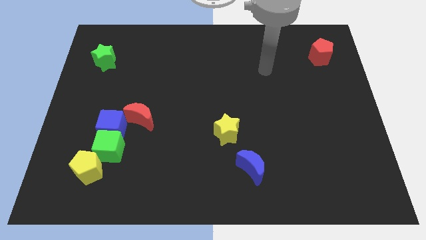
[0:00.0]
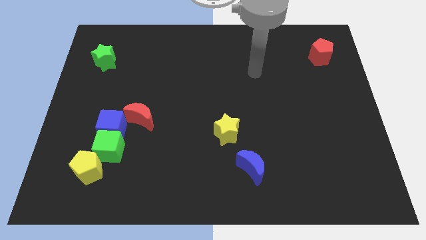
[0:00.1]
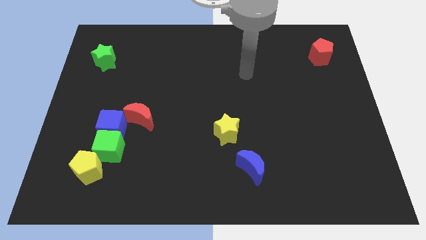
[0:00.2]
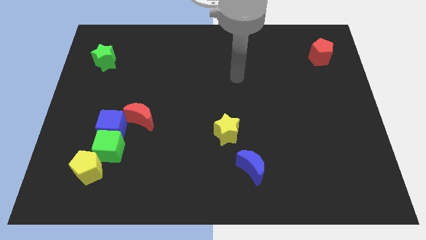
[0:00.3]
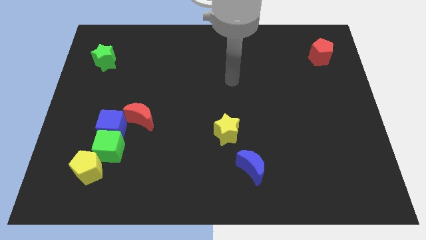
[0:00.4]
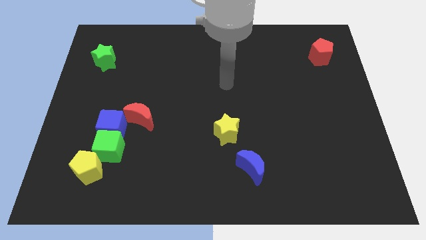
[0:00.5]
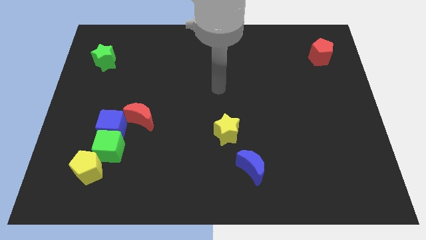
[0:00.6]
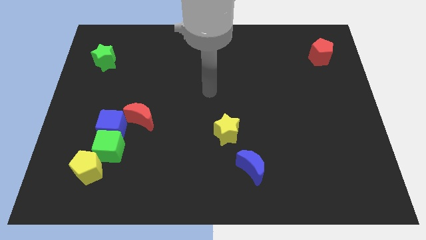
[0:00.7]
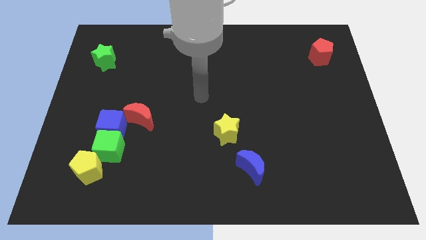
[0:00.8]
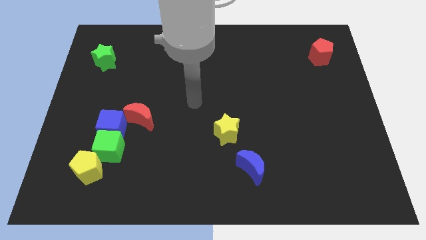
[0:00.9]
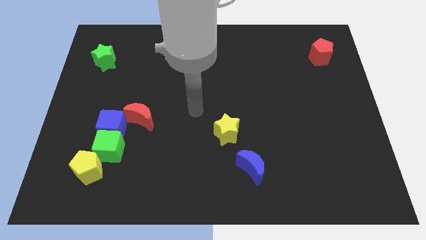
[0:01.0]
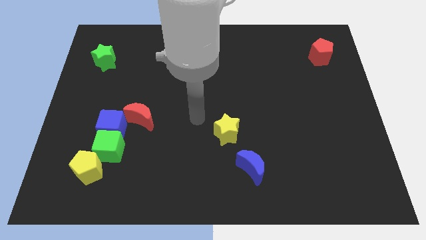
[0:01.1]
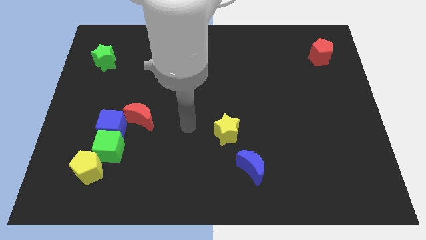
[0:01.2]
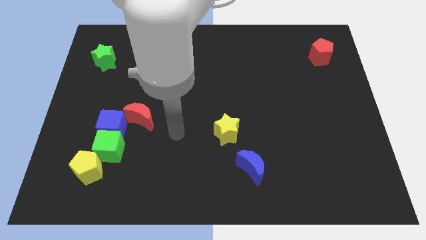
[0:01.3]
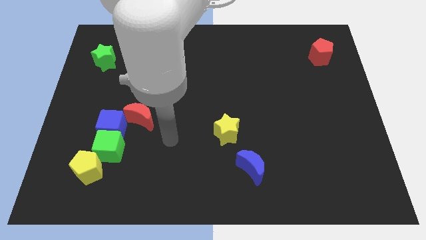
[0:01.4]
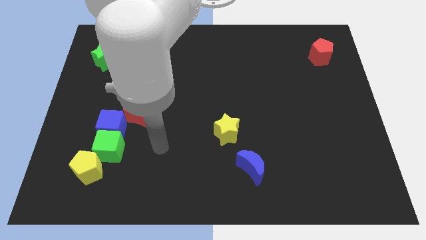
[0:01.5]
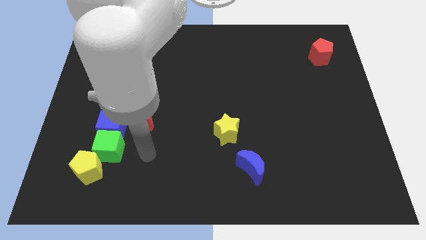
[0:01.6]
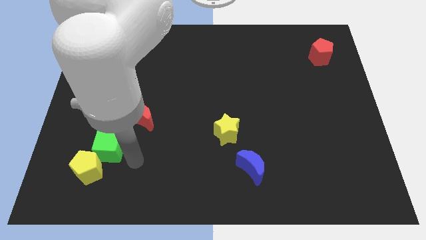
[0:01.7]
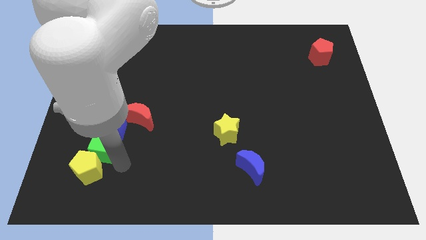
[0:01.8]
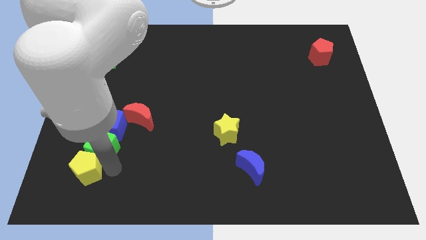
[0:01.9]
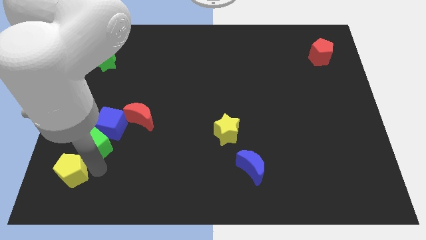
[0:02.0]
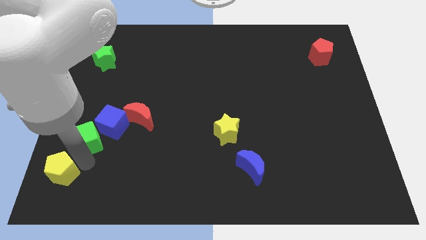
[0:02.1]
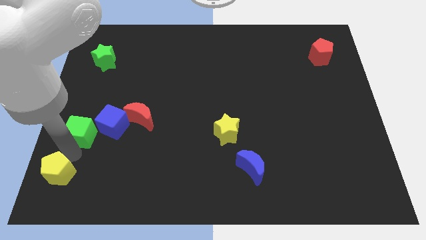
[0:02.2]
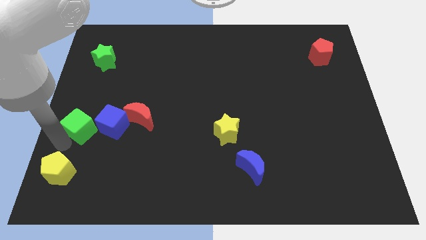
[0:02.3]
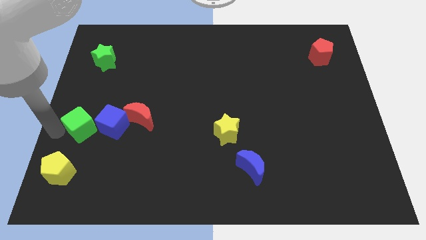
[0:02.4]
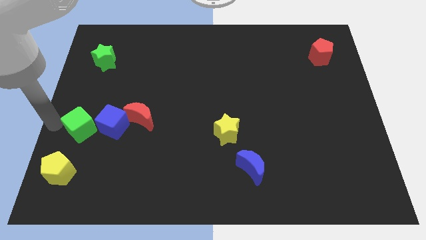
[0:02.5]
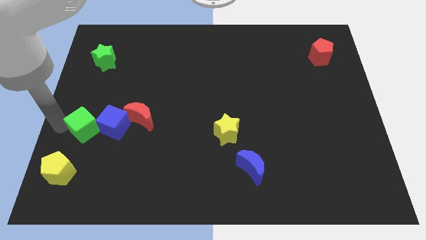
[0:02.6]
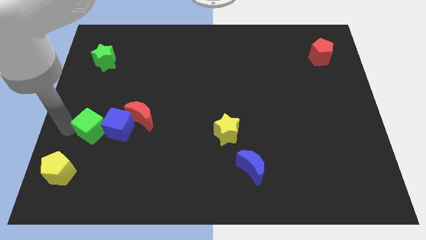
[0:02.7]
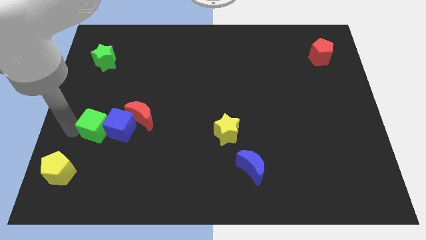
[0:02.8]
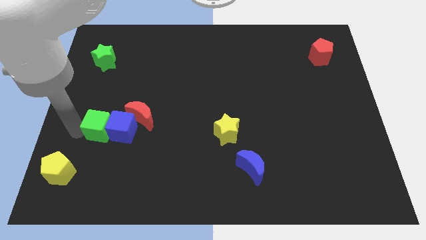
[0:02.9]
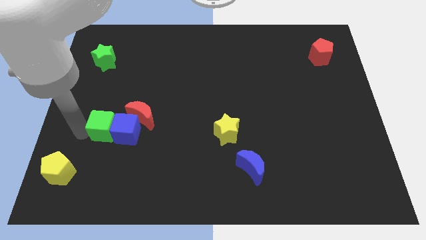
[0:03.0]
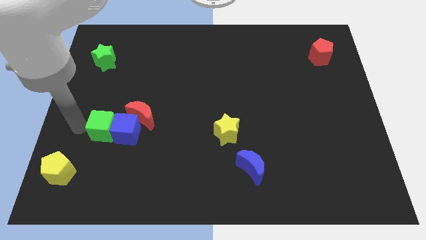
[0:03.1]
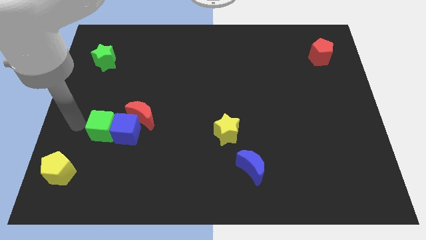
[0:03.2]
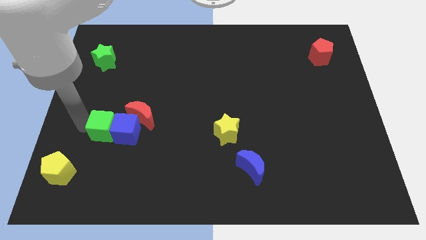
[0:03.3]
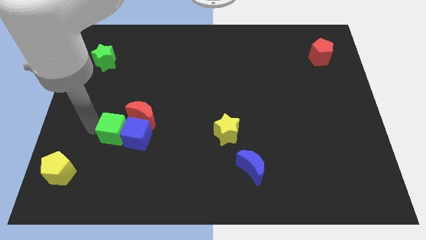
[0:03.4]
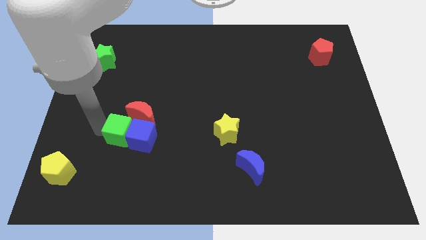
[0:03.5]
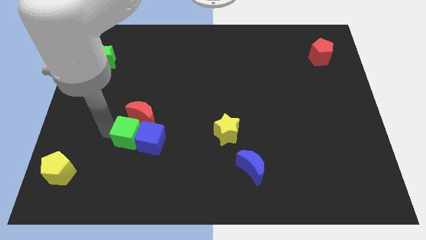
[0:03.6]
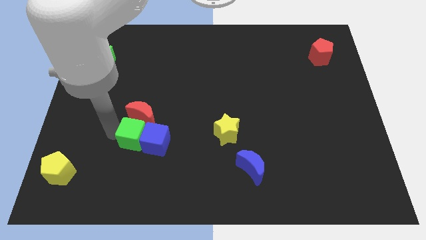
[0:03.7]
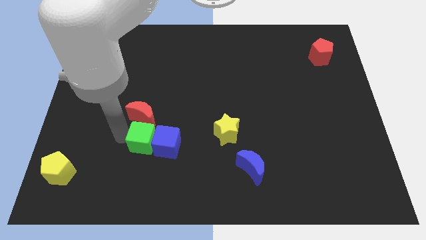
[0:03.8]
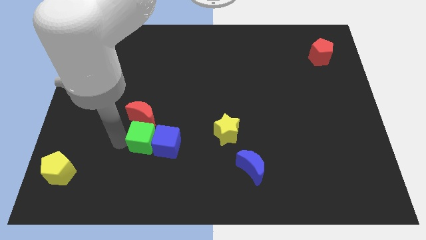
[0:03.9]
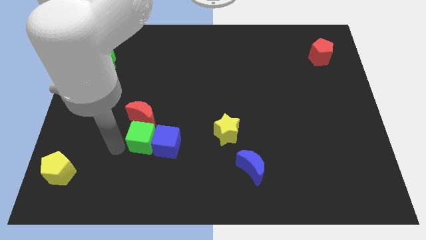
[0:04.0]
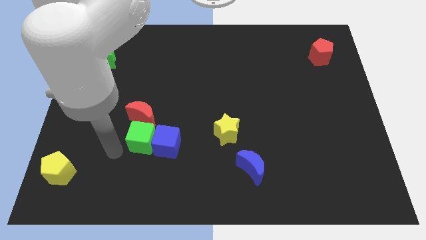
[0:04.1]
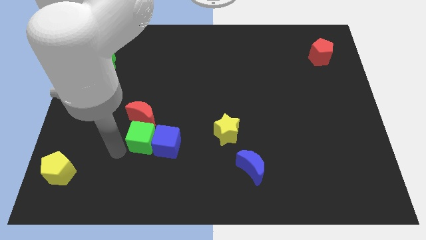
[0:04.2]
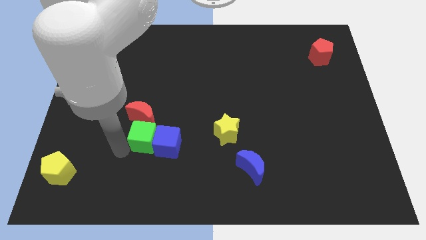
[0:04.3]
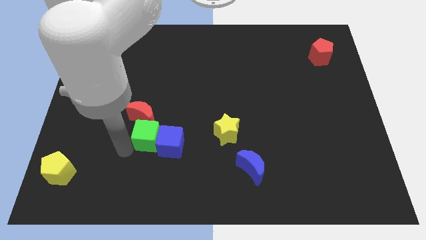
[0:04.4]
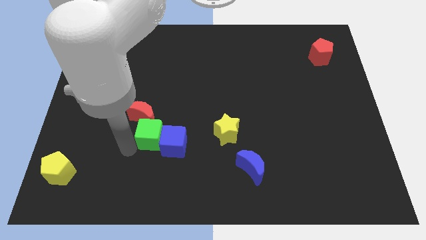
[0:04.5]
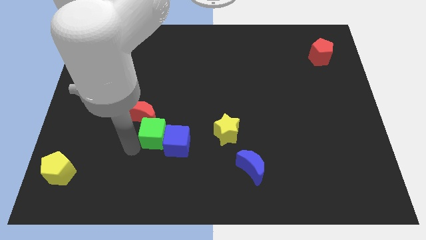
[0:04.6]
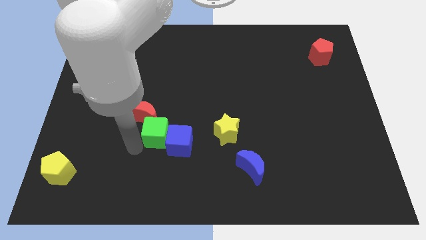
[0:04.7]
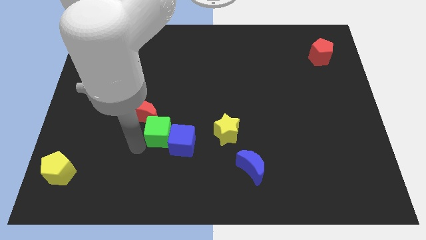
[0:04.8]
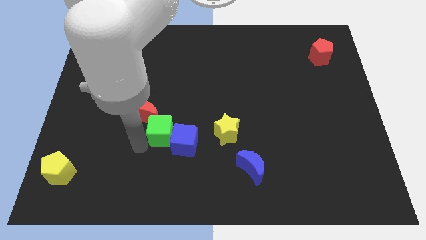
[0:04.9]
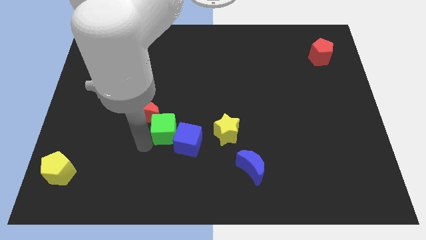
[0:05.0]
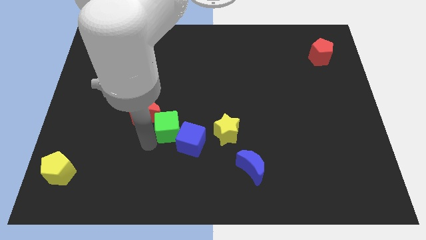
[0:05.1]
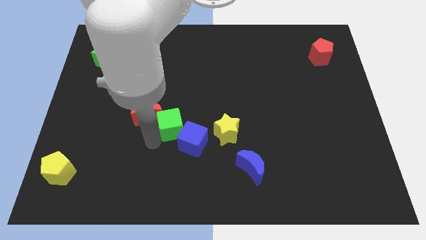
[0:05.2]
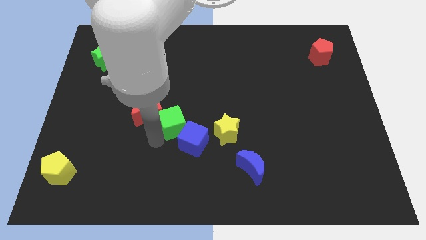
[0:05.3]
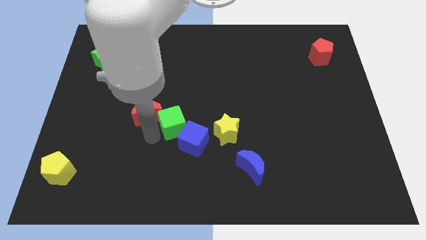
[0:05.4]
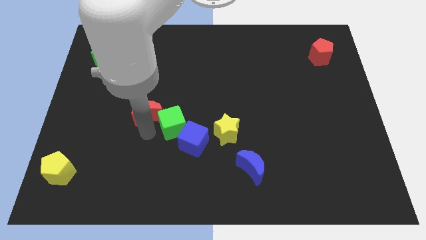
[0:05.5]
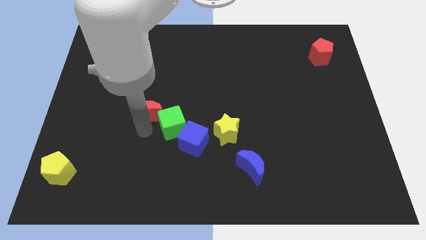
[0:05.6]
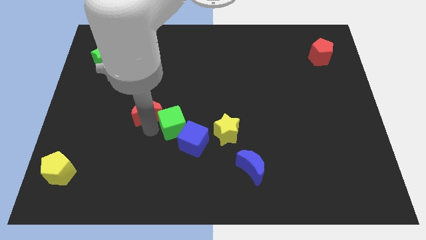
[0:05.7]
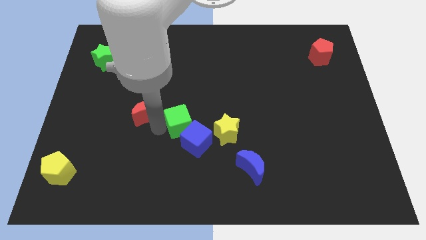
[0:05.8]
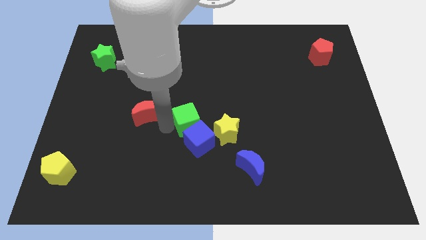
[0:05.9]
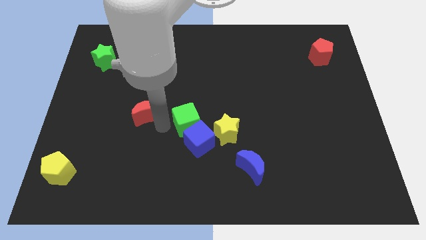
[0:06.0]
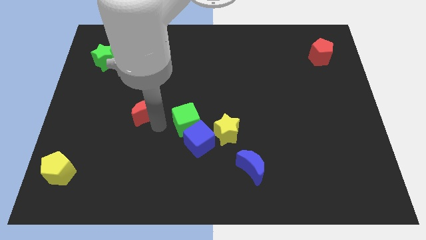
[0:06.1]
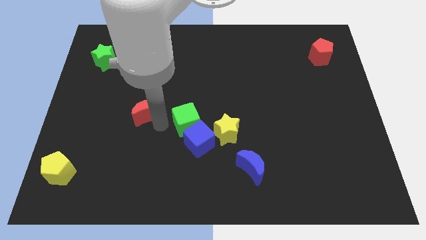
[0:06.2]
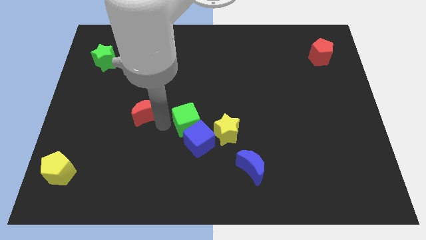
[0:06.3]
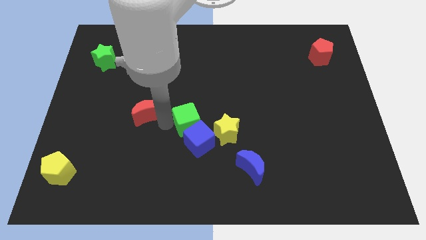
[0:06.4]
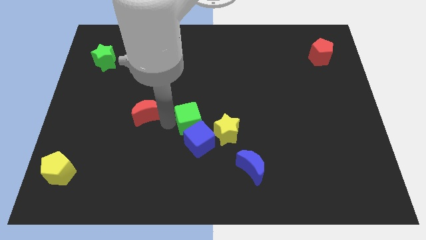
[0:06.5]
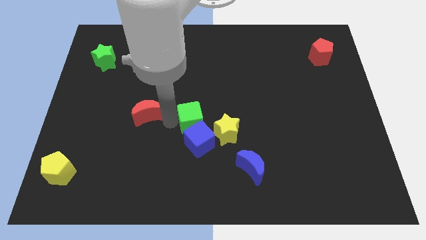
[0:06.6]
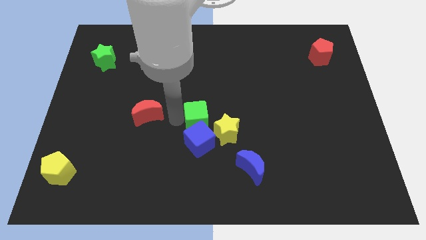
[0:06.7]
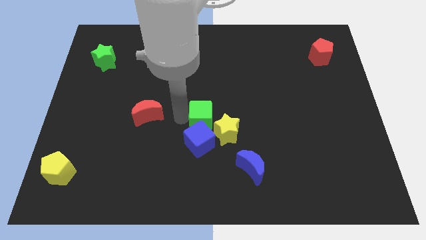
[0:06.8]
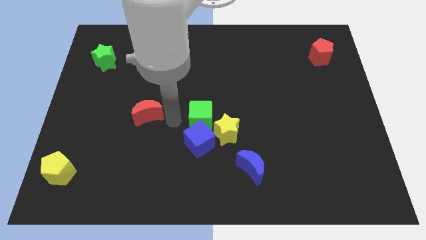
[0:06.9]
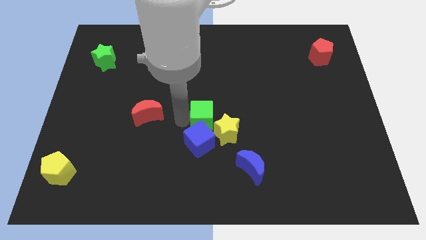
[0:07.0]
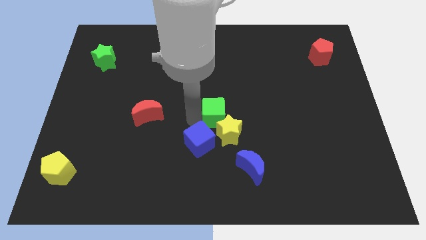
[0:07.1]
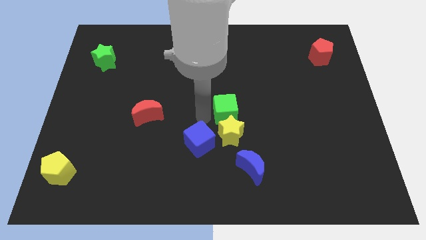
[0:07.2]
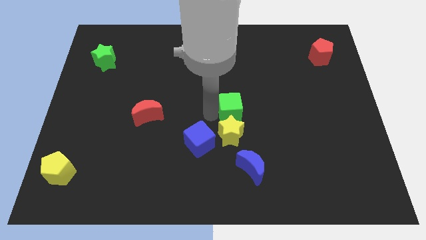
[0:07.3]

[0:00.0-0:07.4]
slide the green cube to the top right of the yellow star
